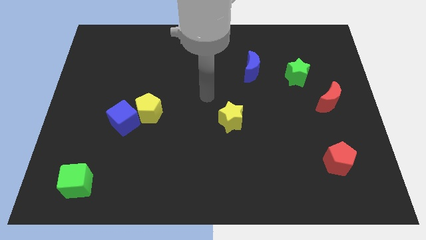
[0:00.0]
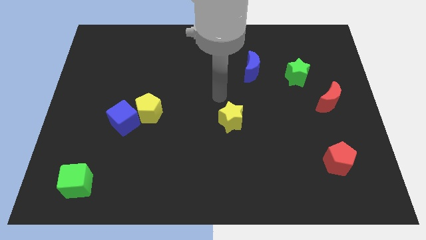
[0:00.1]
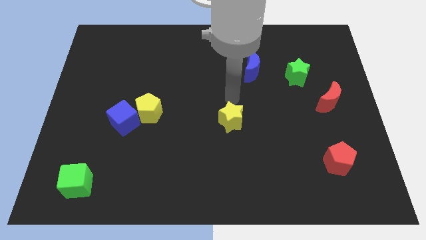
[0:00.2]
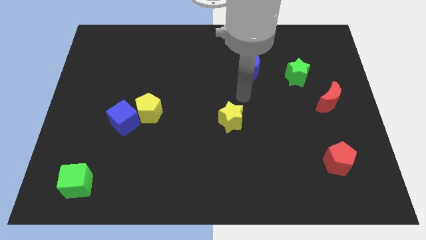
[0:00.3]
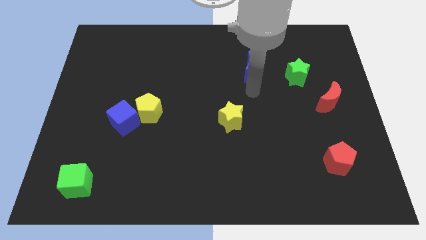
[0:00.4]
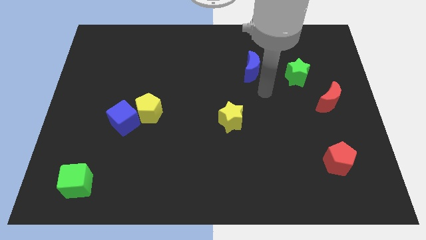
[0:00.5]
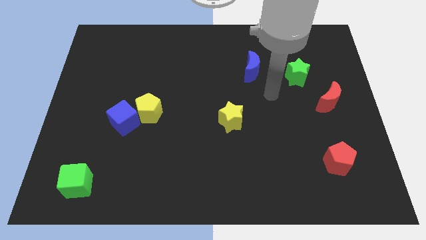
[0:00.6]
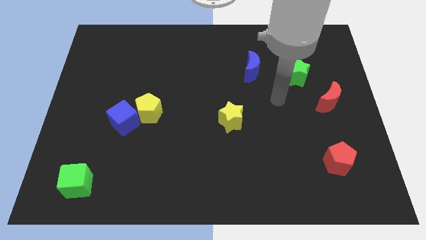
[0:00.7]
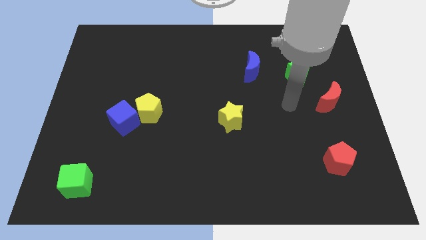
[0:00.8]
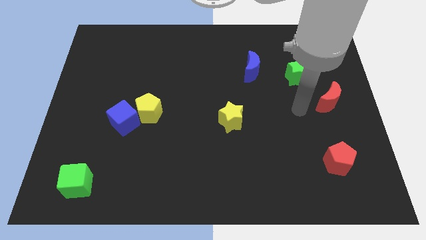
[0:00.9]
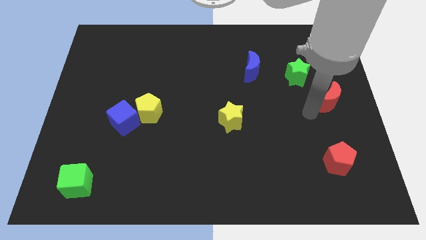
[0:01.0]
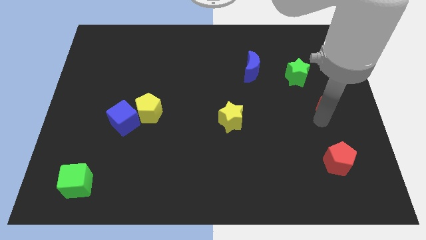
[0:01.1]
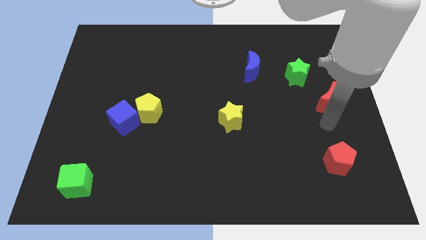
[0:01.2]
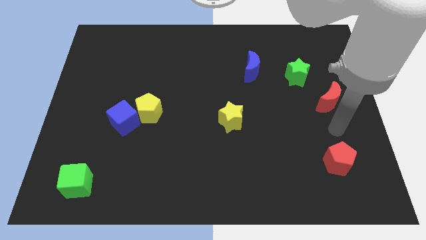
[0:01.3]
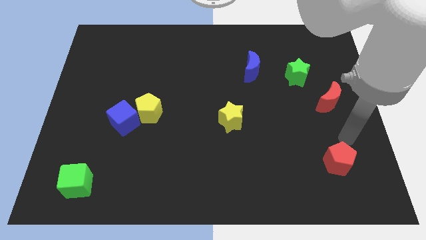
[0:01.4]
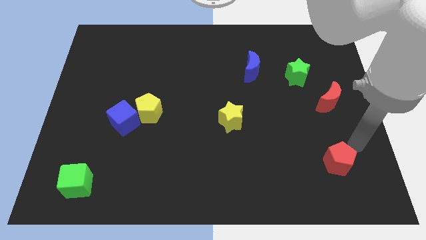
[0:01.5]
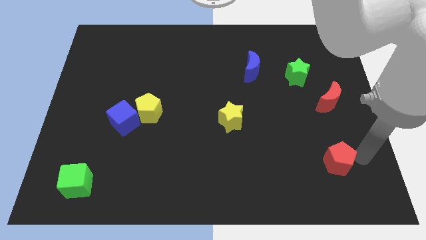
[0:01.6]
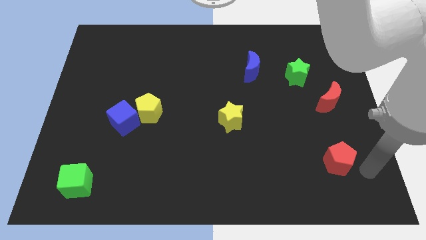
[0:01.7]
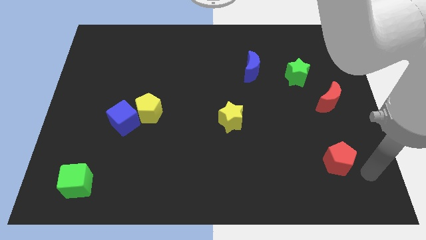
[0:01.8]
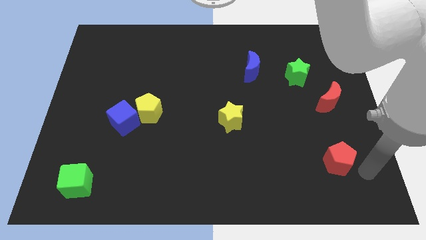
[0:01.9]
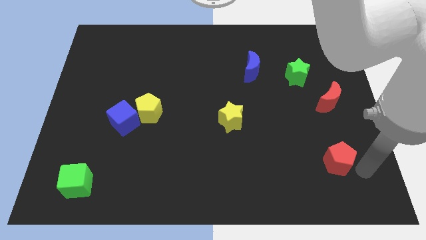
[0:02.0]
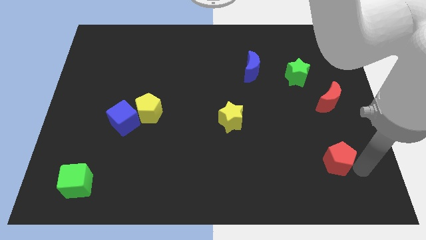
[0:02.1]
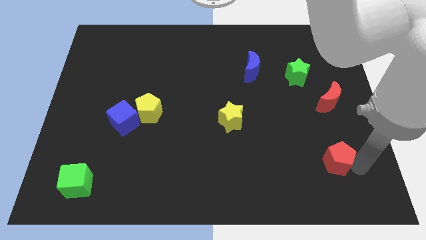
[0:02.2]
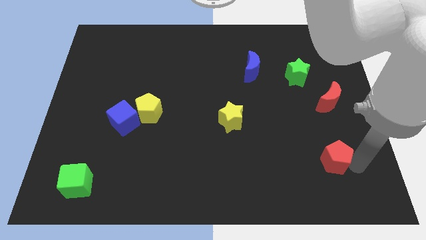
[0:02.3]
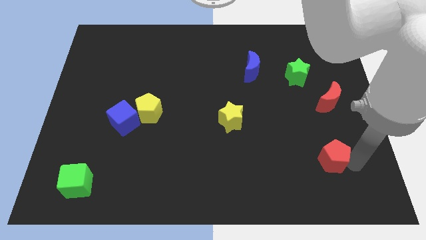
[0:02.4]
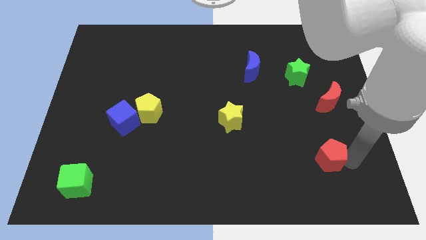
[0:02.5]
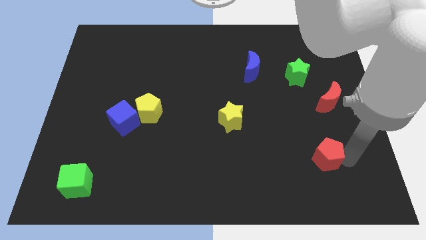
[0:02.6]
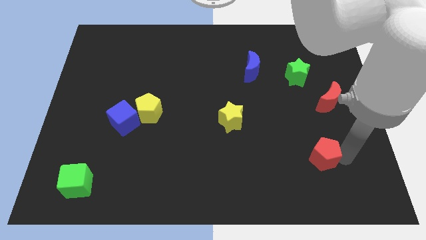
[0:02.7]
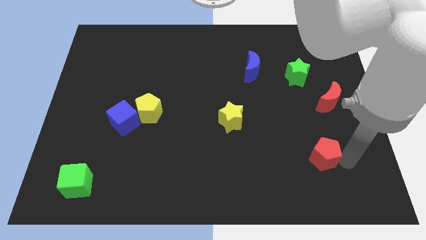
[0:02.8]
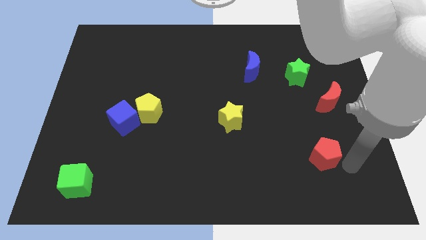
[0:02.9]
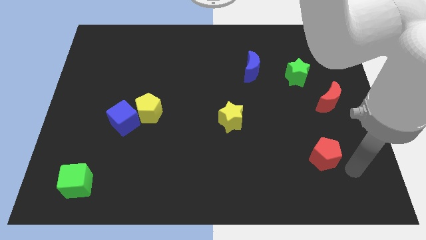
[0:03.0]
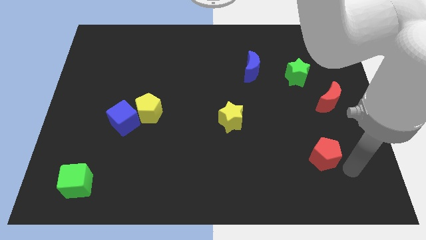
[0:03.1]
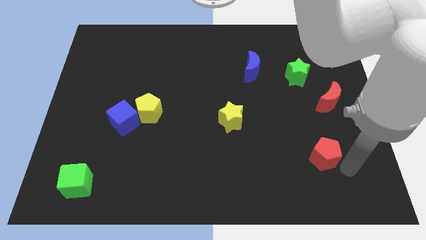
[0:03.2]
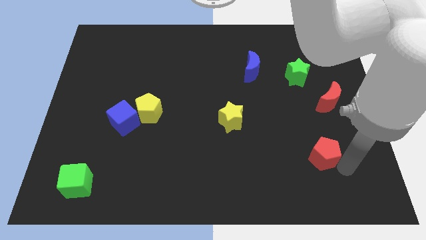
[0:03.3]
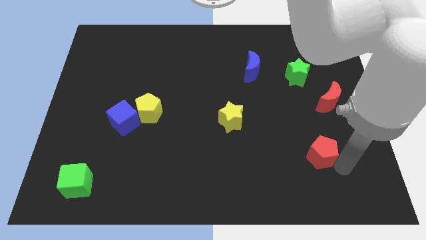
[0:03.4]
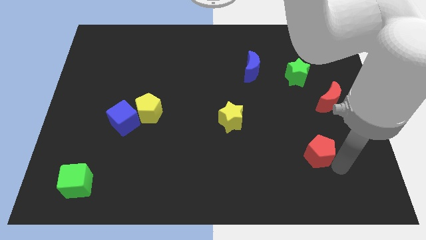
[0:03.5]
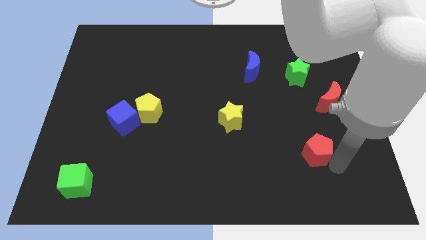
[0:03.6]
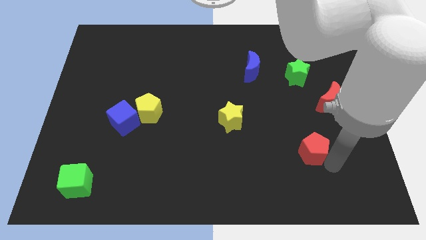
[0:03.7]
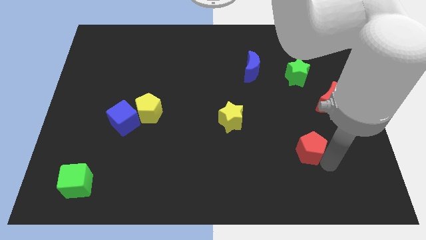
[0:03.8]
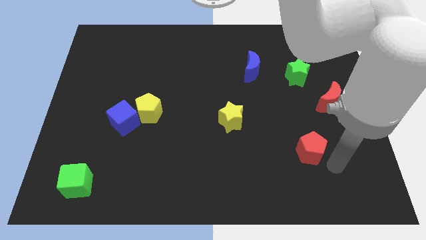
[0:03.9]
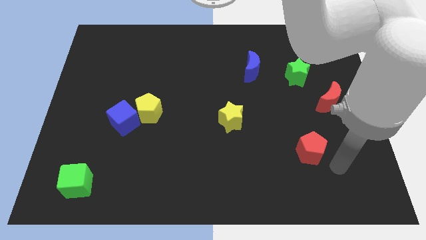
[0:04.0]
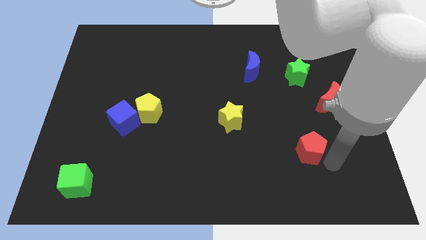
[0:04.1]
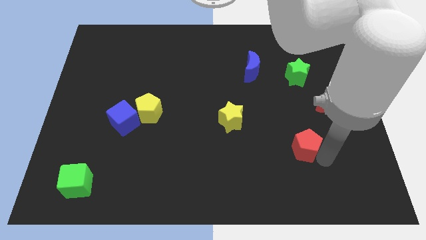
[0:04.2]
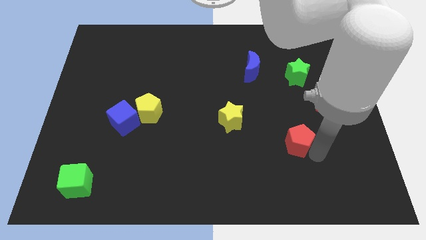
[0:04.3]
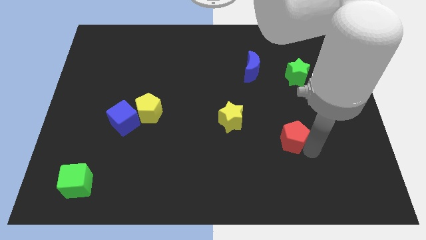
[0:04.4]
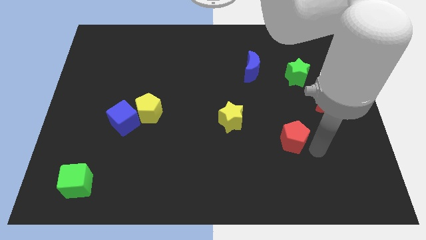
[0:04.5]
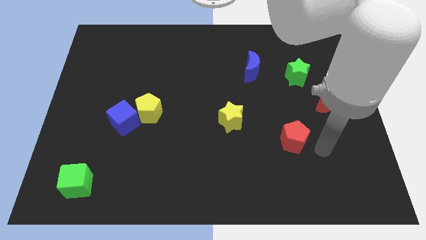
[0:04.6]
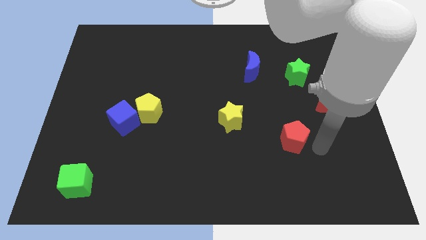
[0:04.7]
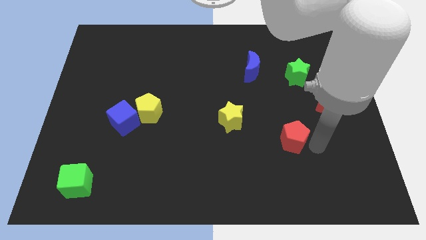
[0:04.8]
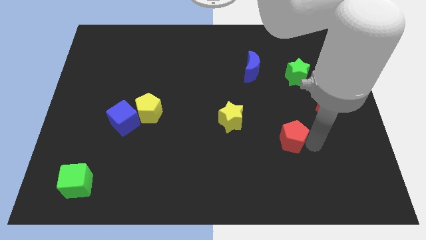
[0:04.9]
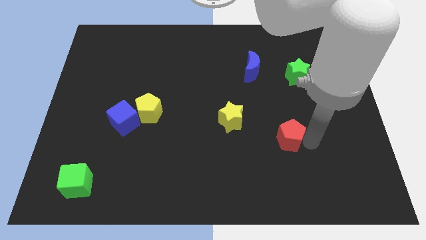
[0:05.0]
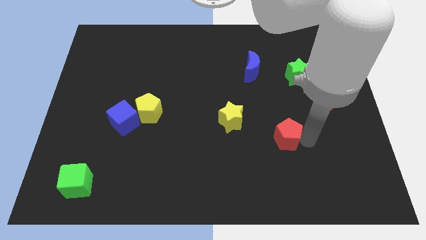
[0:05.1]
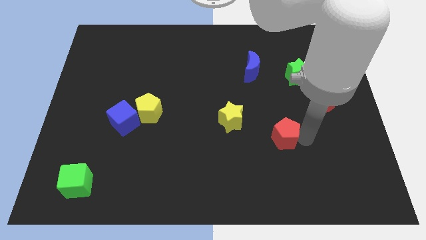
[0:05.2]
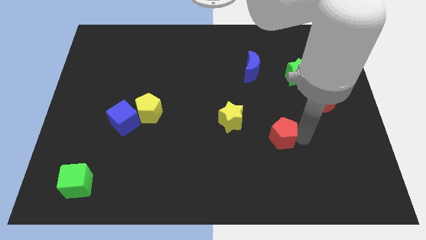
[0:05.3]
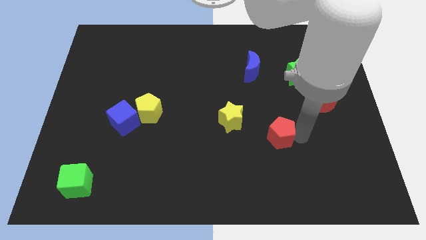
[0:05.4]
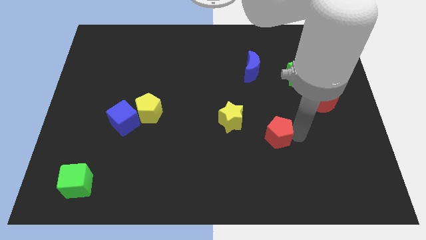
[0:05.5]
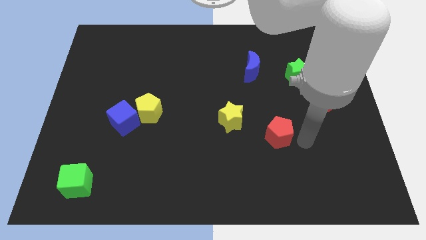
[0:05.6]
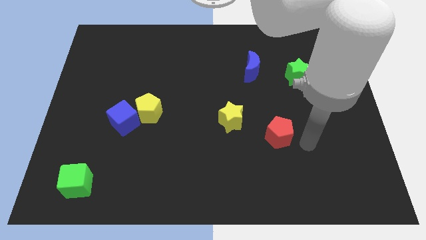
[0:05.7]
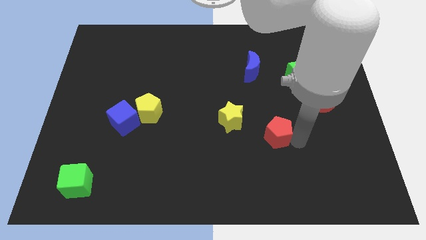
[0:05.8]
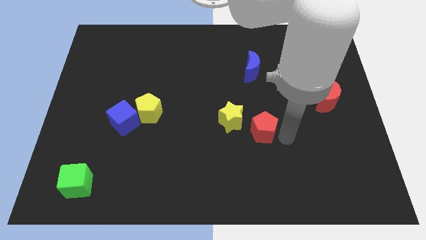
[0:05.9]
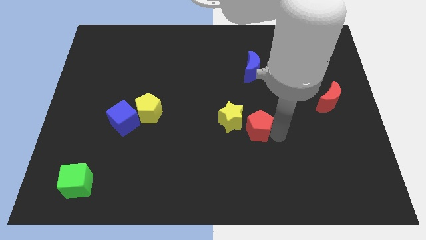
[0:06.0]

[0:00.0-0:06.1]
slide the red pentagon close to the yellow star

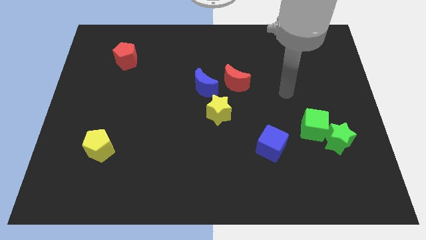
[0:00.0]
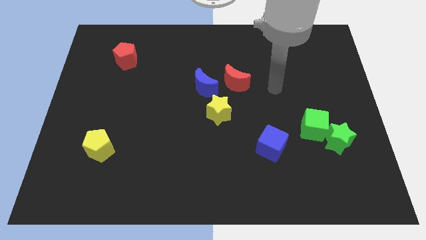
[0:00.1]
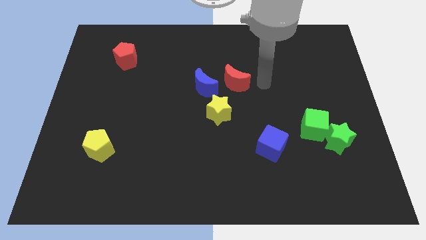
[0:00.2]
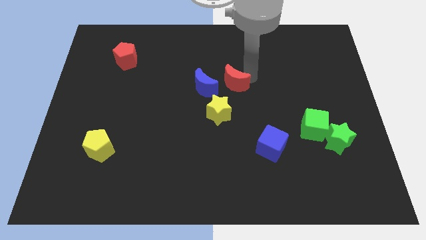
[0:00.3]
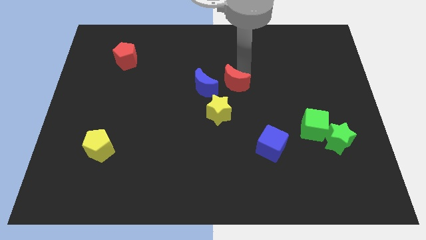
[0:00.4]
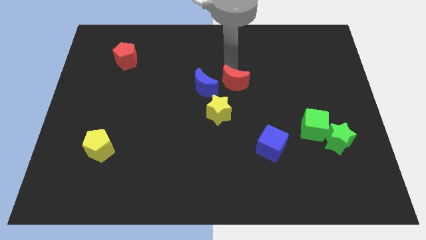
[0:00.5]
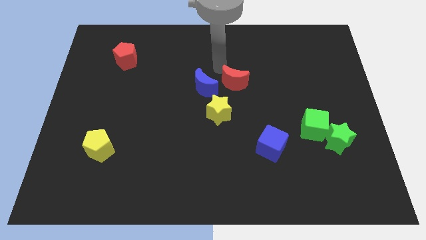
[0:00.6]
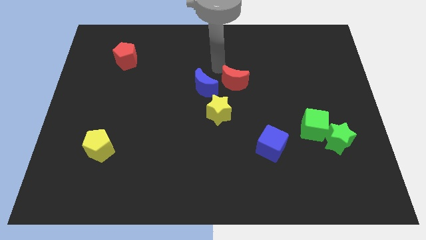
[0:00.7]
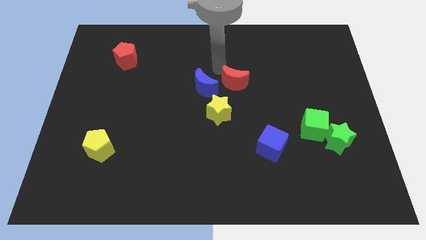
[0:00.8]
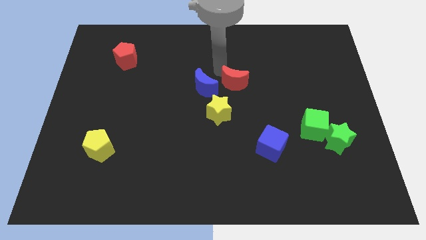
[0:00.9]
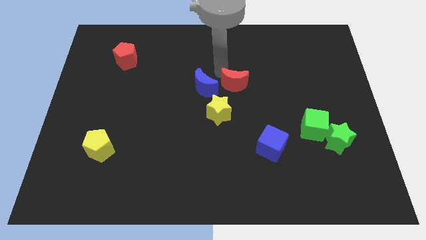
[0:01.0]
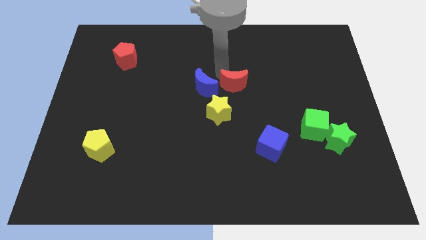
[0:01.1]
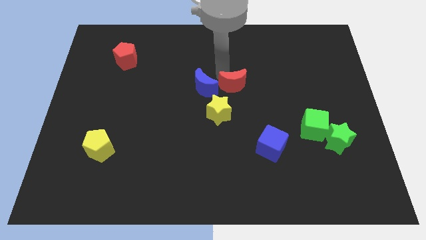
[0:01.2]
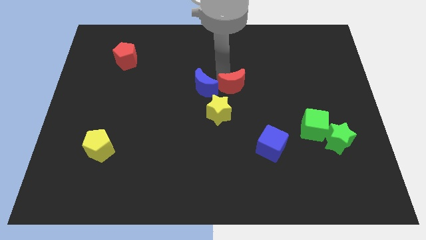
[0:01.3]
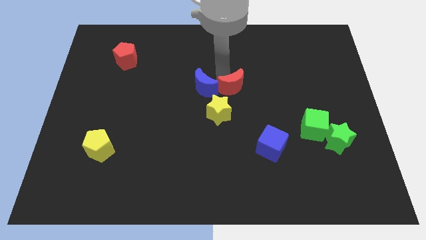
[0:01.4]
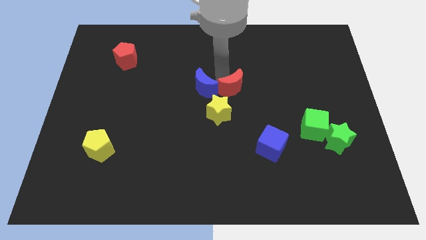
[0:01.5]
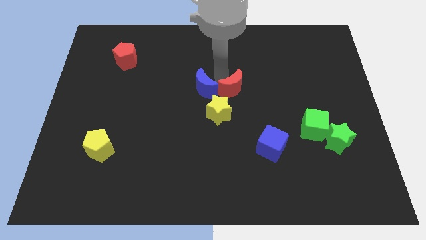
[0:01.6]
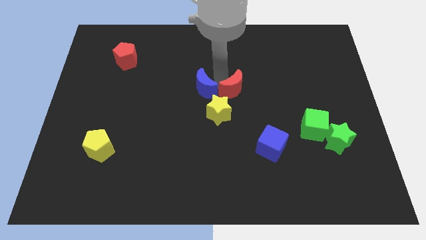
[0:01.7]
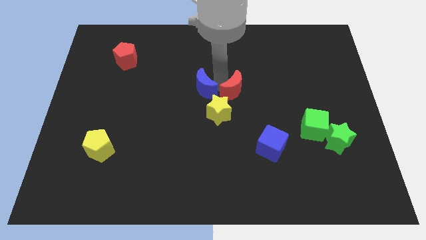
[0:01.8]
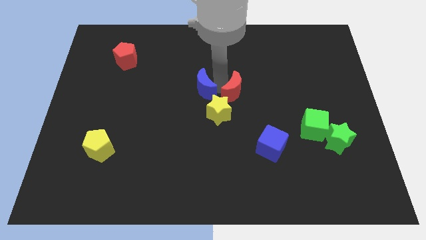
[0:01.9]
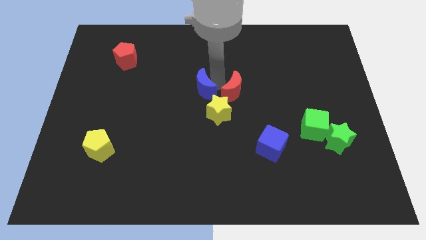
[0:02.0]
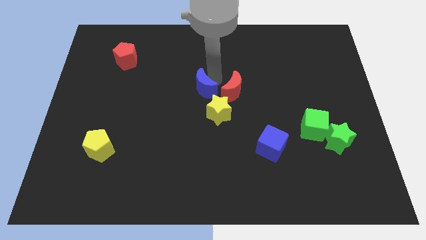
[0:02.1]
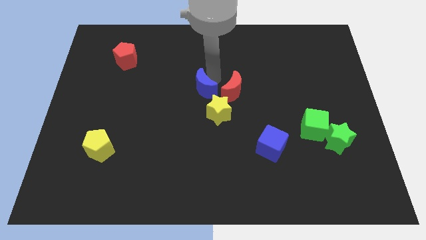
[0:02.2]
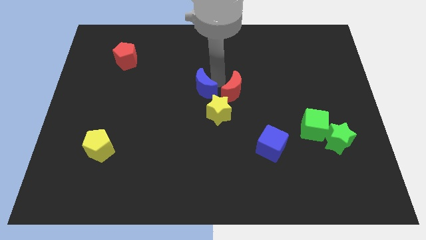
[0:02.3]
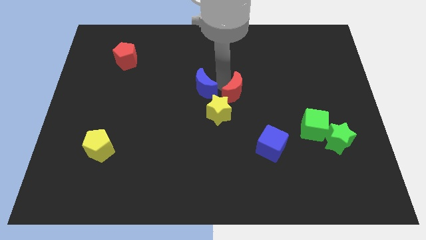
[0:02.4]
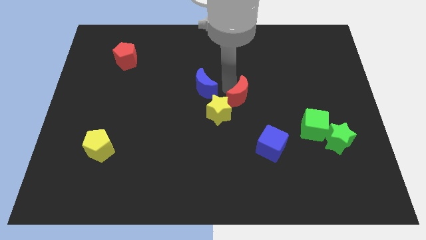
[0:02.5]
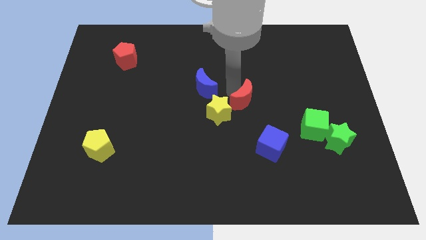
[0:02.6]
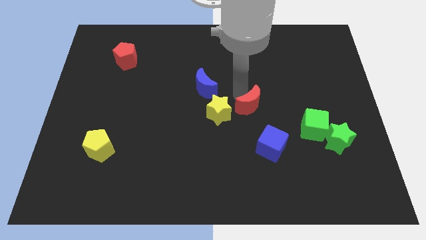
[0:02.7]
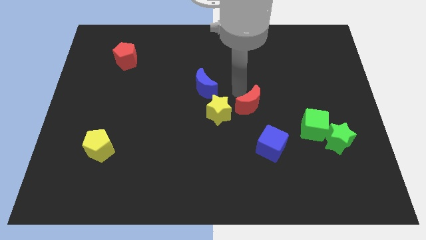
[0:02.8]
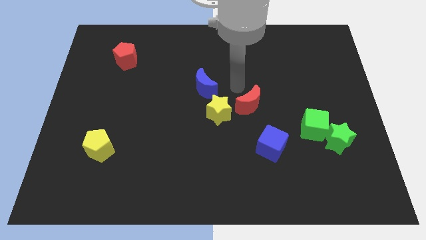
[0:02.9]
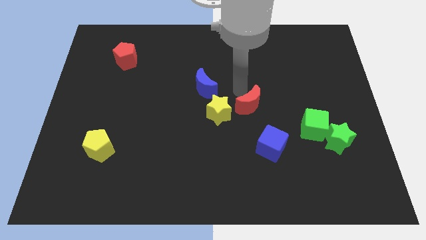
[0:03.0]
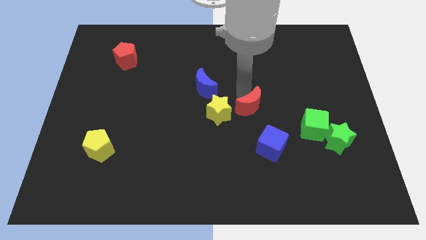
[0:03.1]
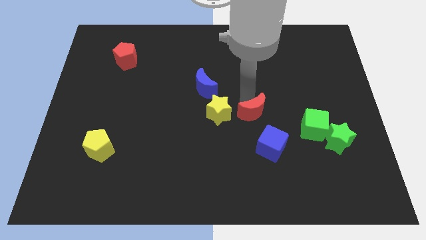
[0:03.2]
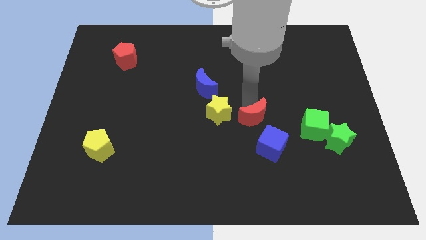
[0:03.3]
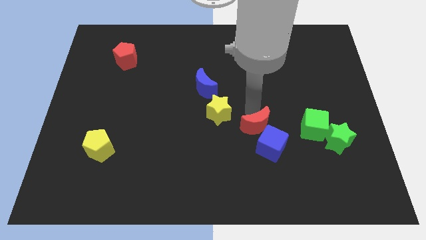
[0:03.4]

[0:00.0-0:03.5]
push the red moon towards the blue cube
